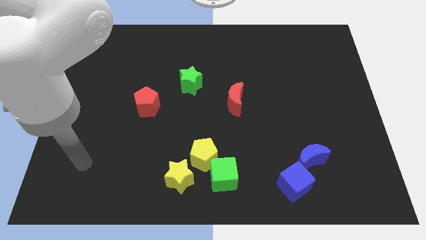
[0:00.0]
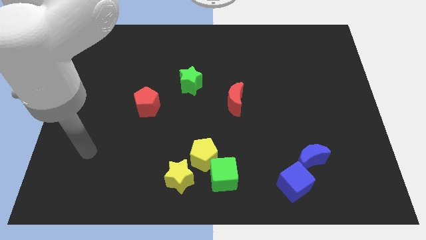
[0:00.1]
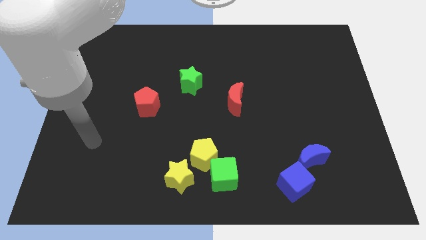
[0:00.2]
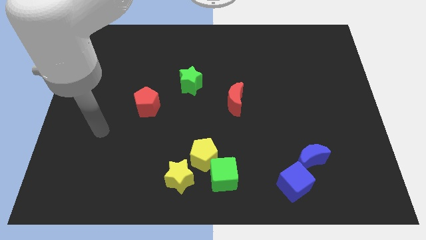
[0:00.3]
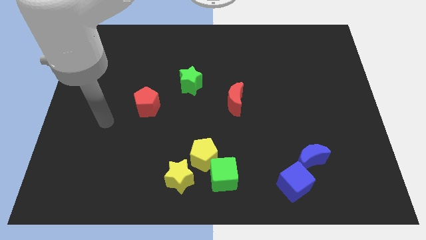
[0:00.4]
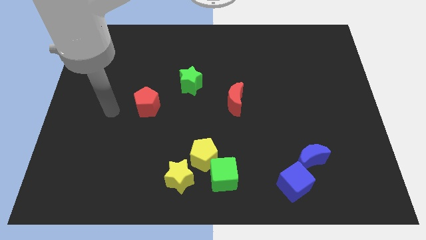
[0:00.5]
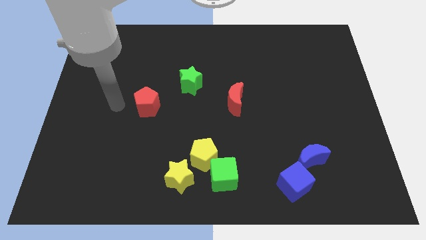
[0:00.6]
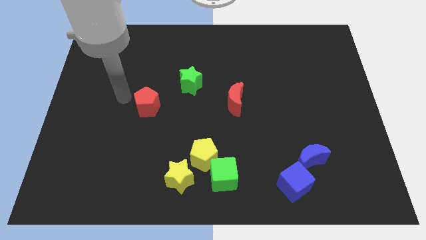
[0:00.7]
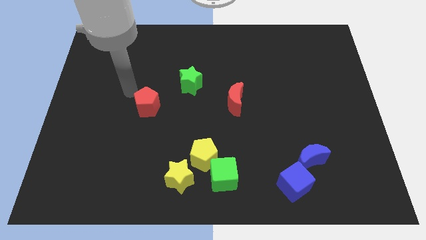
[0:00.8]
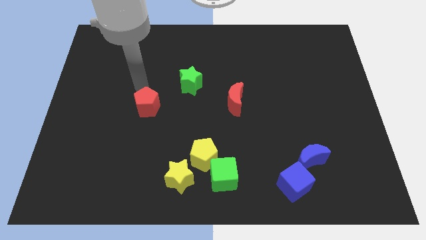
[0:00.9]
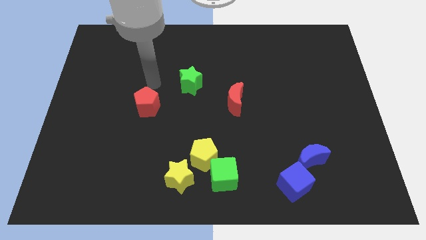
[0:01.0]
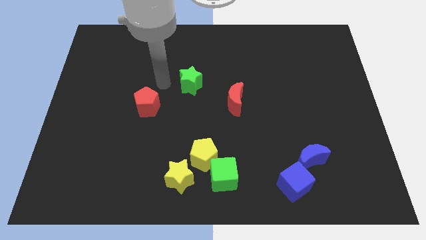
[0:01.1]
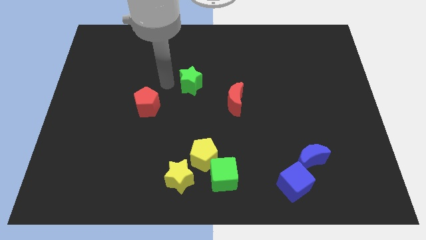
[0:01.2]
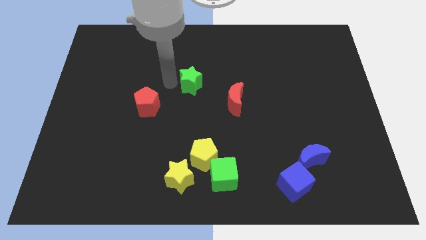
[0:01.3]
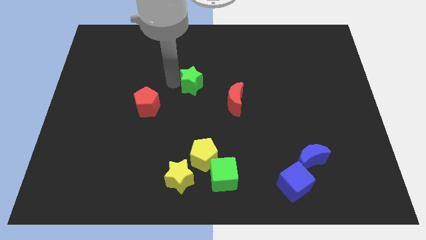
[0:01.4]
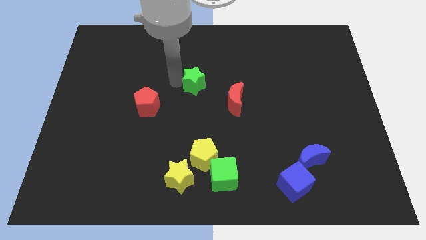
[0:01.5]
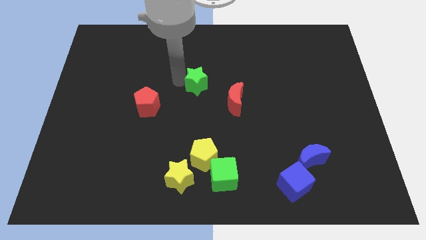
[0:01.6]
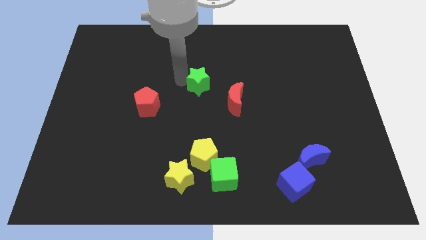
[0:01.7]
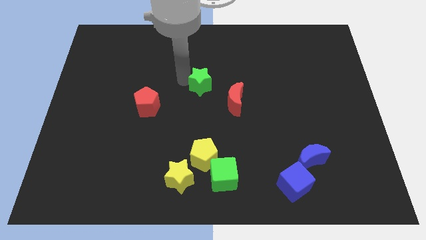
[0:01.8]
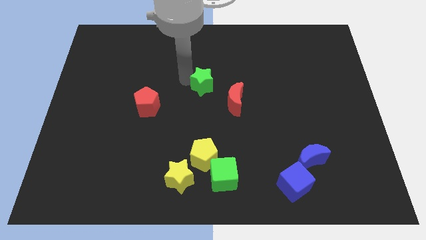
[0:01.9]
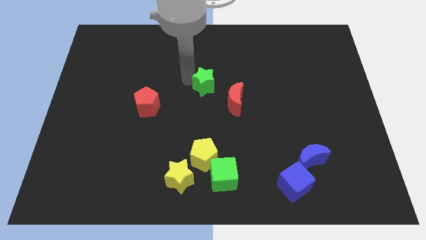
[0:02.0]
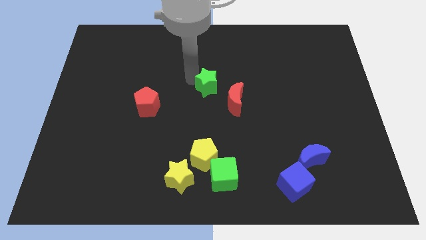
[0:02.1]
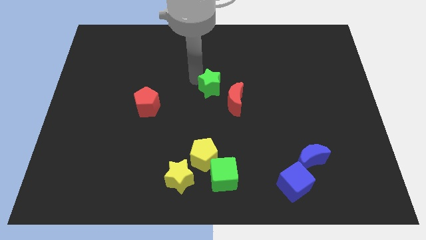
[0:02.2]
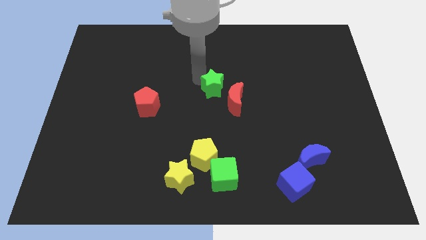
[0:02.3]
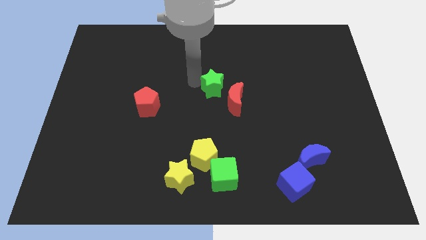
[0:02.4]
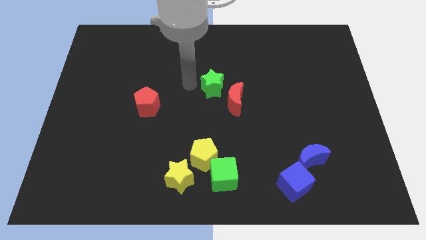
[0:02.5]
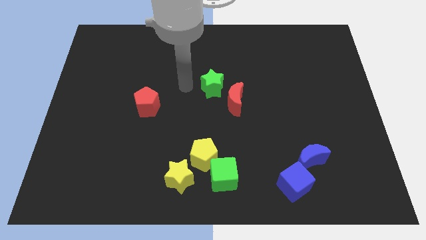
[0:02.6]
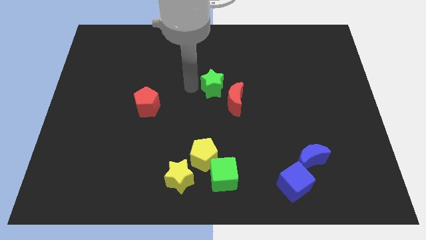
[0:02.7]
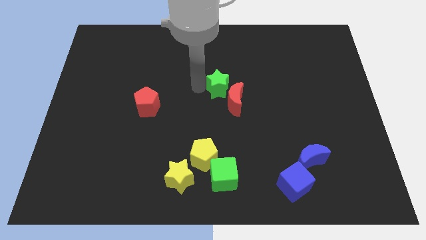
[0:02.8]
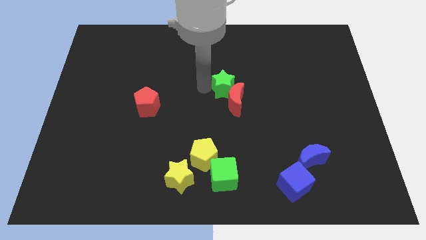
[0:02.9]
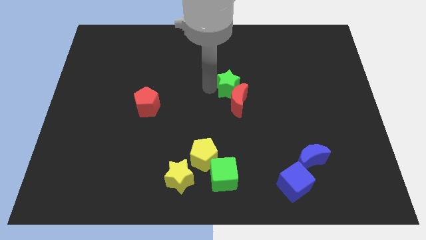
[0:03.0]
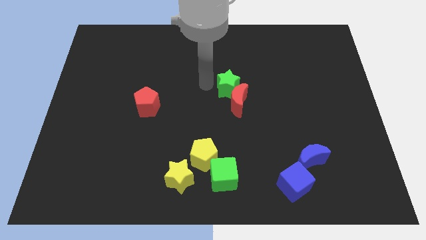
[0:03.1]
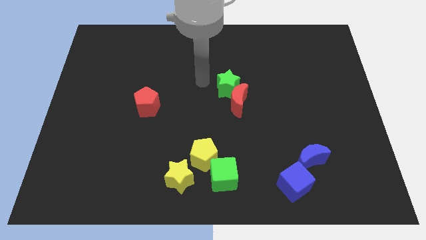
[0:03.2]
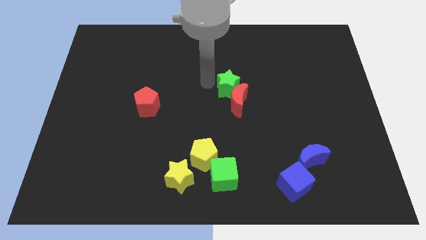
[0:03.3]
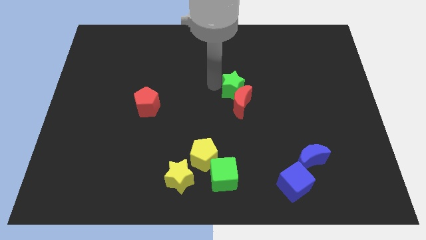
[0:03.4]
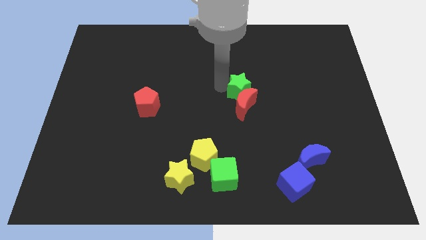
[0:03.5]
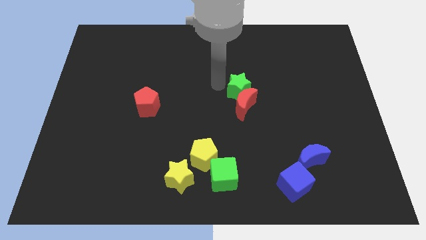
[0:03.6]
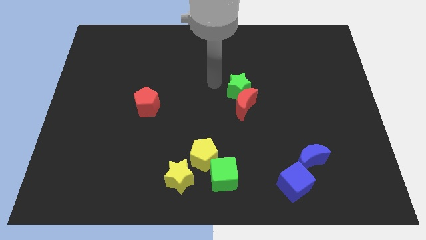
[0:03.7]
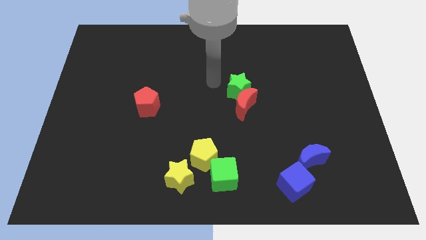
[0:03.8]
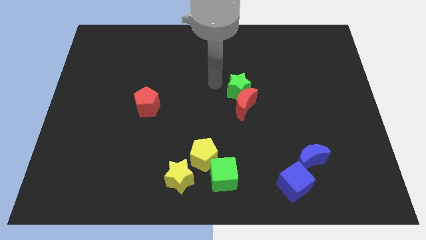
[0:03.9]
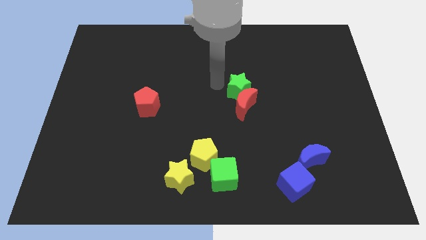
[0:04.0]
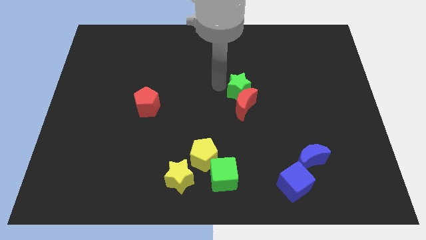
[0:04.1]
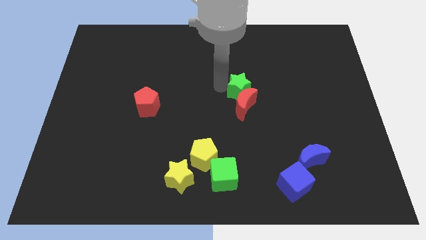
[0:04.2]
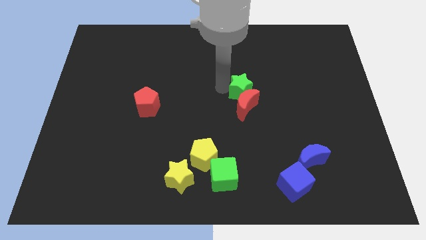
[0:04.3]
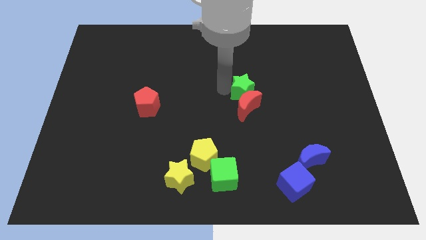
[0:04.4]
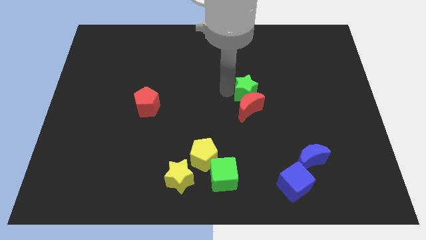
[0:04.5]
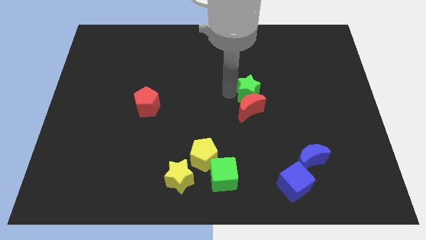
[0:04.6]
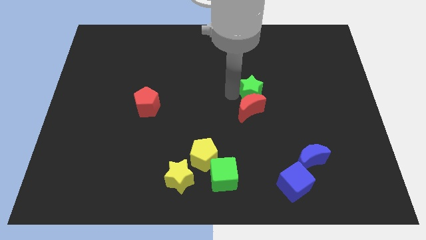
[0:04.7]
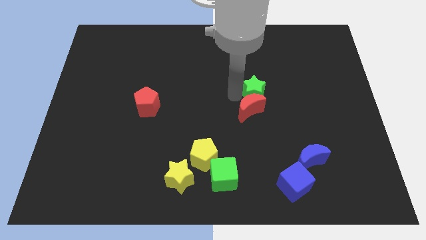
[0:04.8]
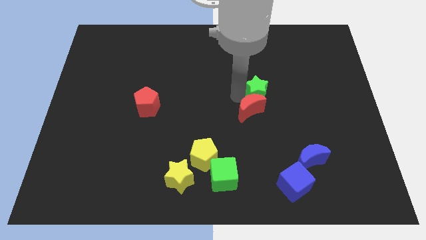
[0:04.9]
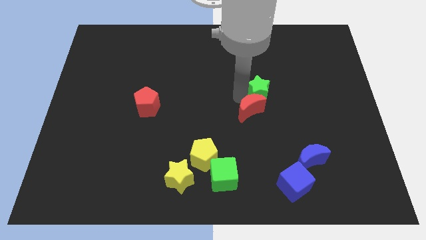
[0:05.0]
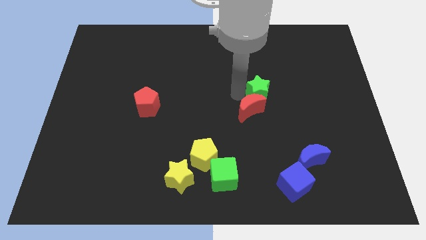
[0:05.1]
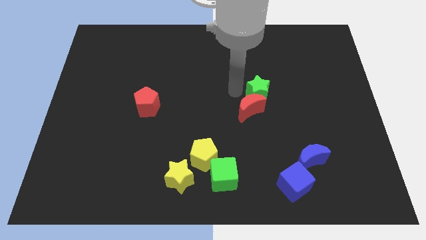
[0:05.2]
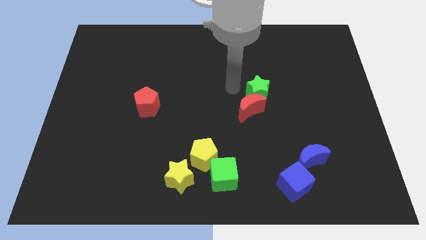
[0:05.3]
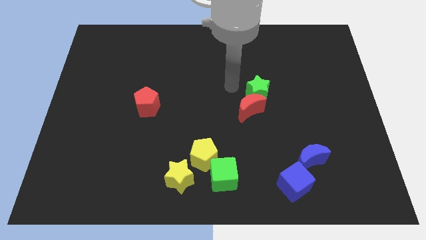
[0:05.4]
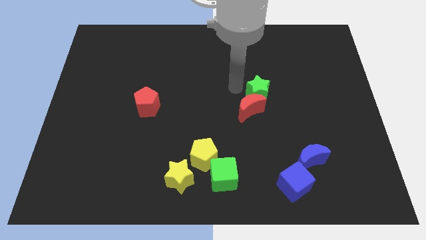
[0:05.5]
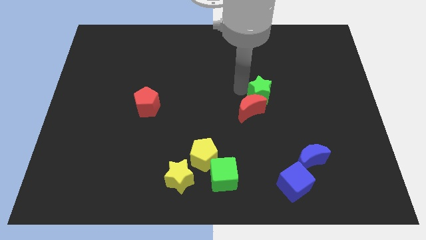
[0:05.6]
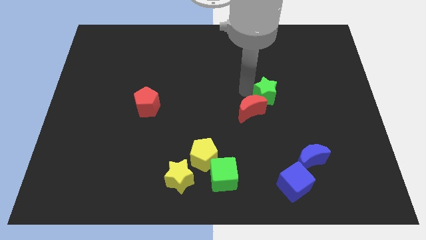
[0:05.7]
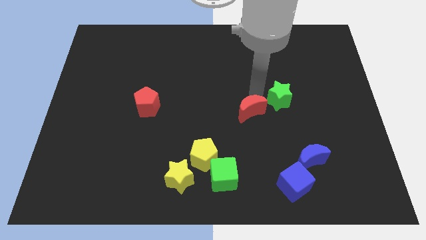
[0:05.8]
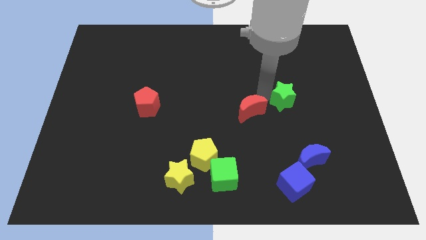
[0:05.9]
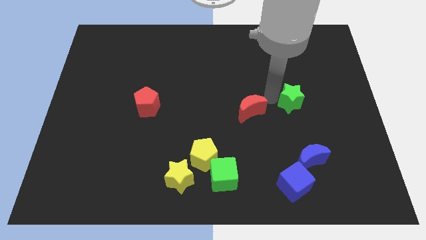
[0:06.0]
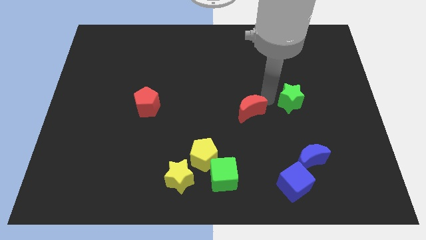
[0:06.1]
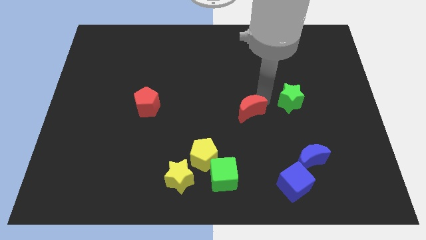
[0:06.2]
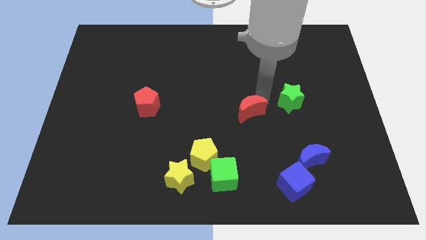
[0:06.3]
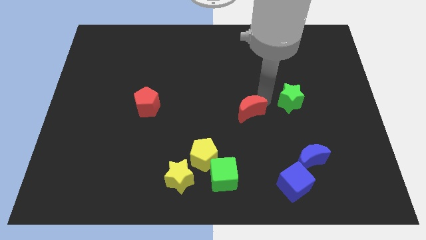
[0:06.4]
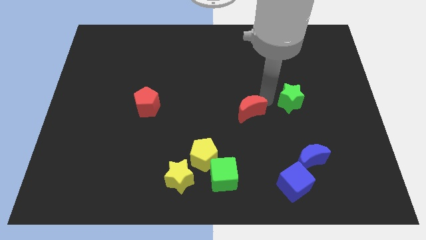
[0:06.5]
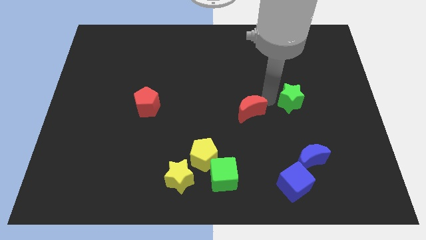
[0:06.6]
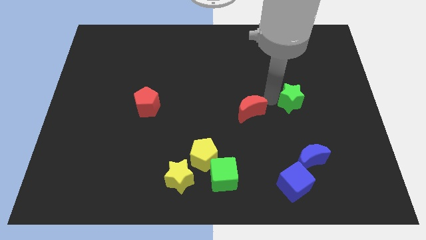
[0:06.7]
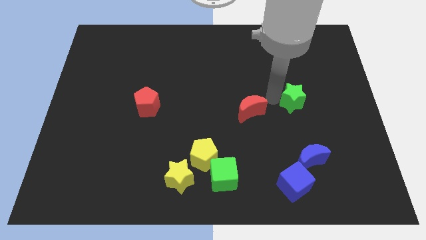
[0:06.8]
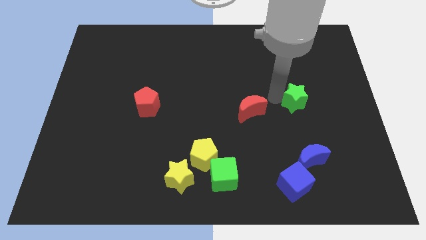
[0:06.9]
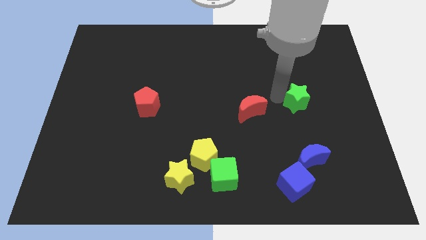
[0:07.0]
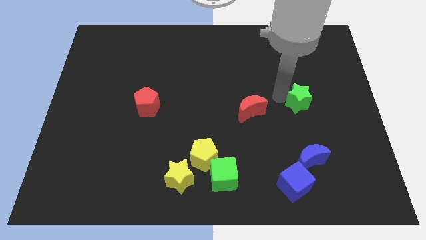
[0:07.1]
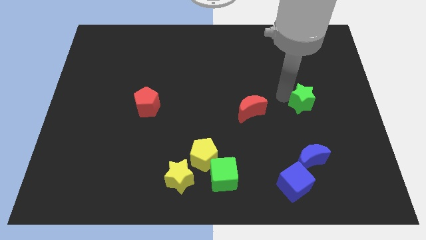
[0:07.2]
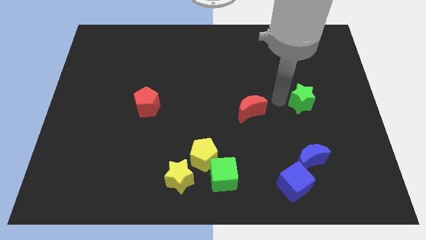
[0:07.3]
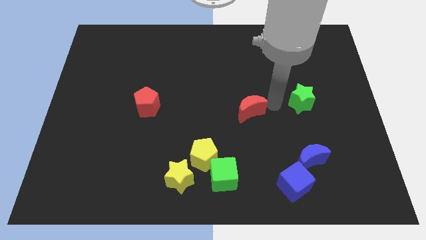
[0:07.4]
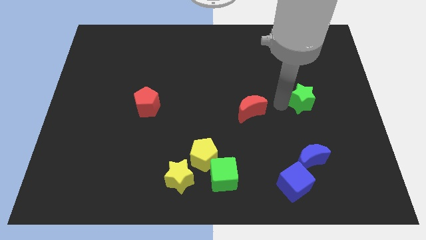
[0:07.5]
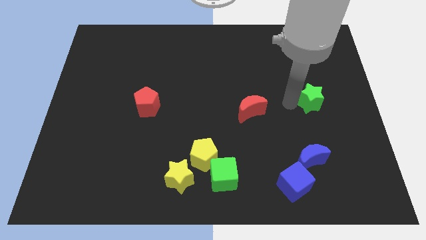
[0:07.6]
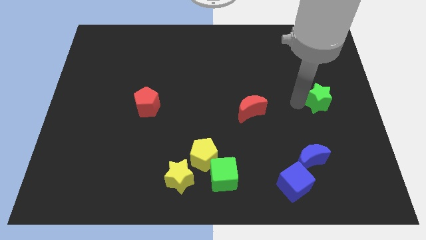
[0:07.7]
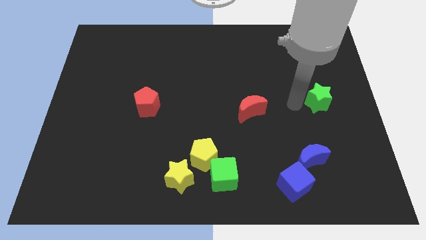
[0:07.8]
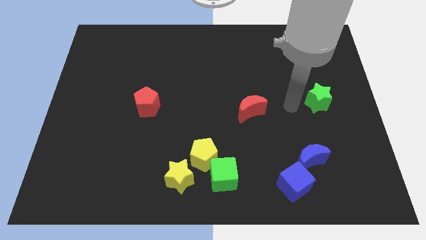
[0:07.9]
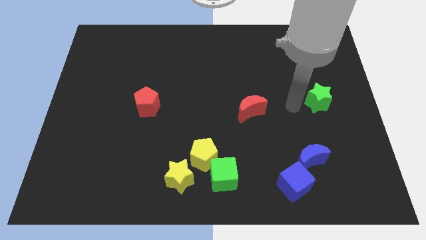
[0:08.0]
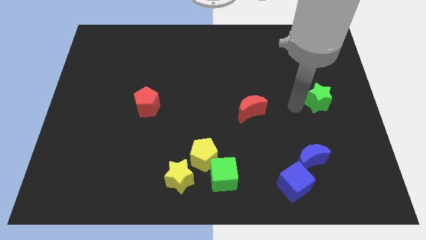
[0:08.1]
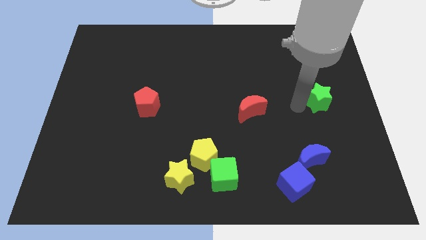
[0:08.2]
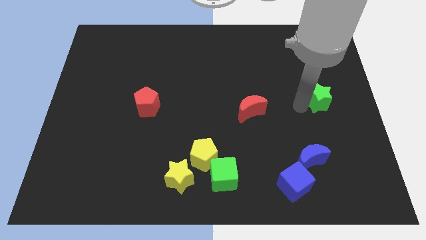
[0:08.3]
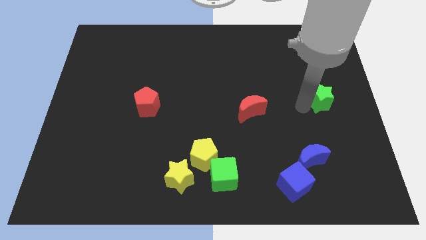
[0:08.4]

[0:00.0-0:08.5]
push the green star to the right side
